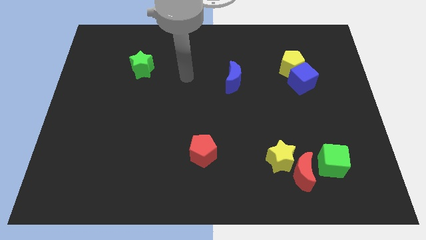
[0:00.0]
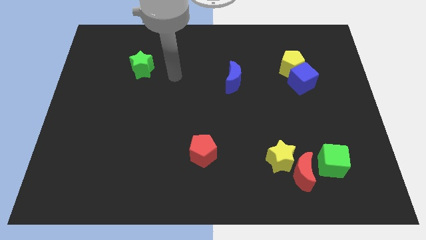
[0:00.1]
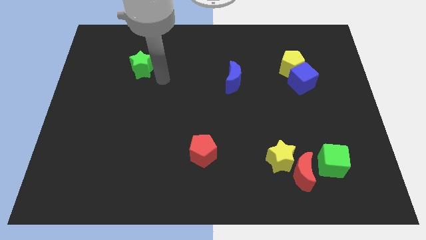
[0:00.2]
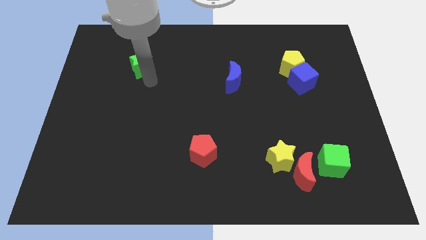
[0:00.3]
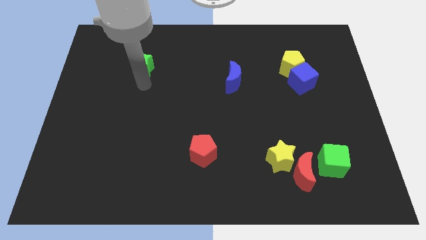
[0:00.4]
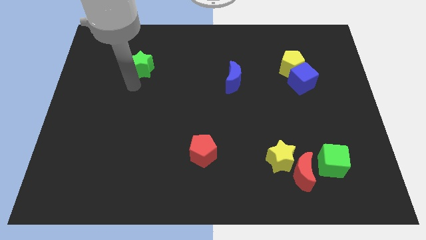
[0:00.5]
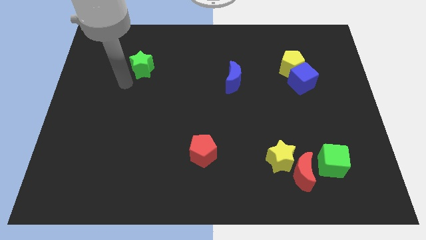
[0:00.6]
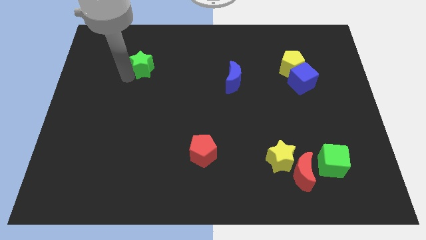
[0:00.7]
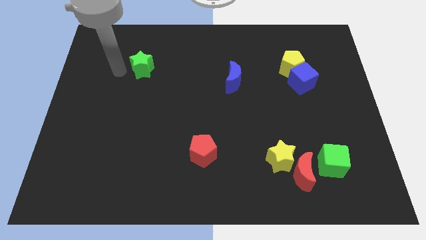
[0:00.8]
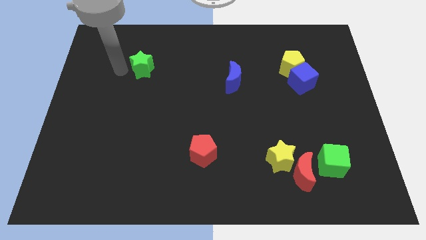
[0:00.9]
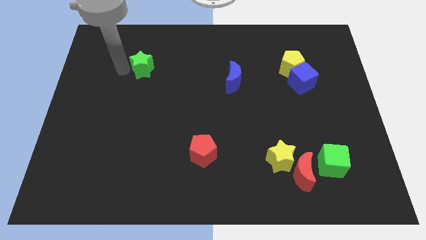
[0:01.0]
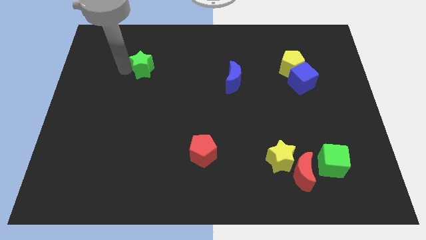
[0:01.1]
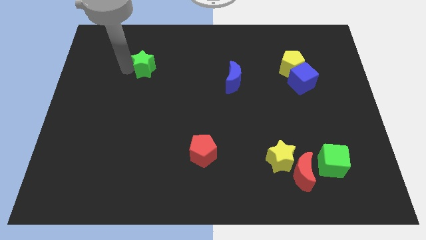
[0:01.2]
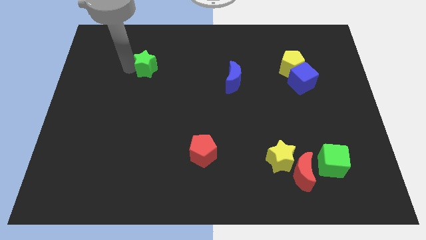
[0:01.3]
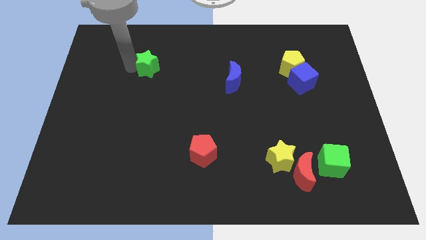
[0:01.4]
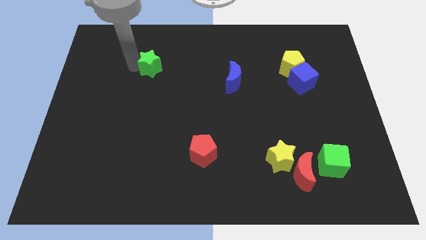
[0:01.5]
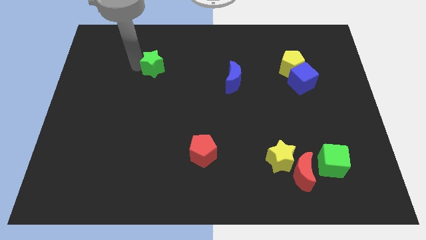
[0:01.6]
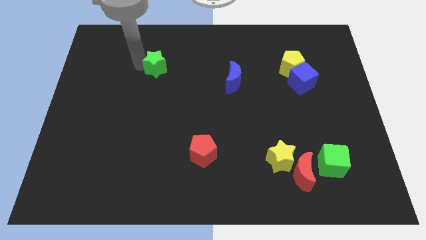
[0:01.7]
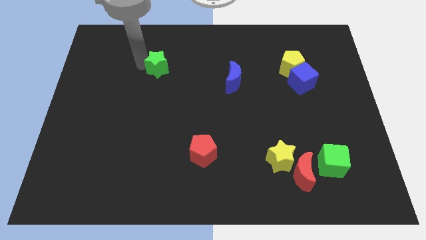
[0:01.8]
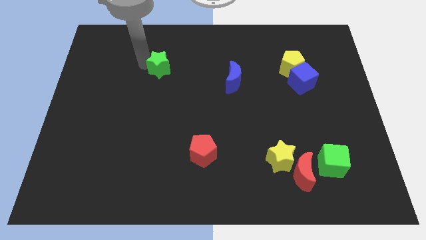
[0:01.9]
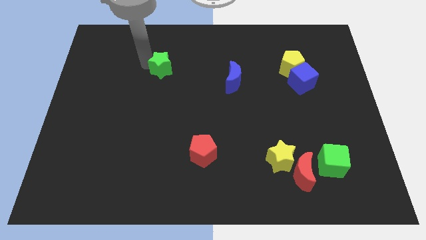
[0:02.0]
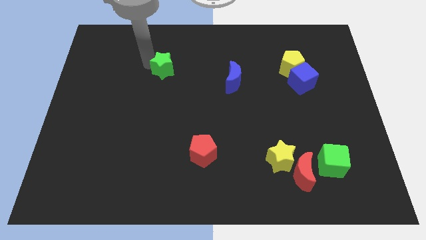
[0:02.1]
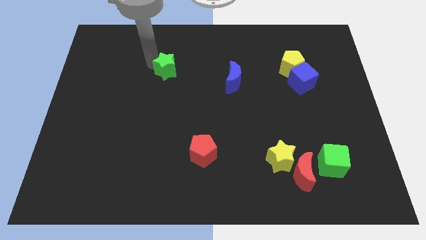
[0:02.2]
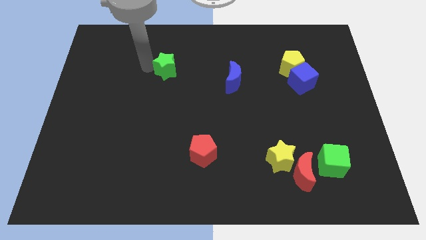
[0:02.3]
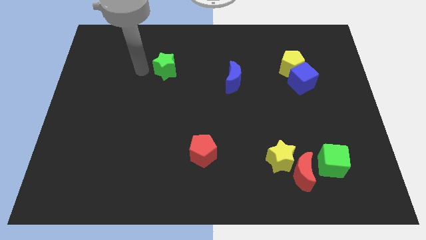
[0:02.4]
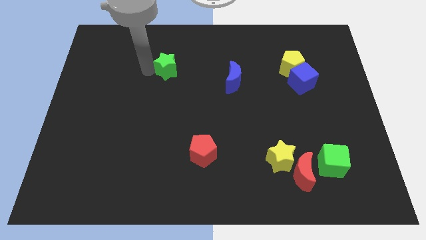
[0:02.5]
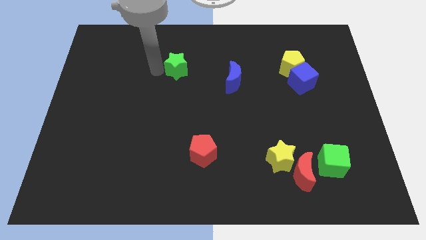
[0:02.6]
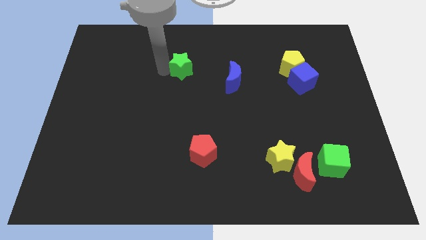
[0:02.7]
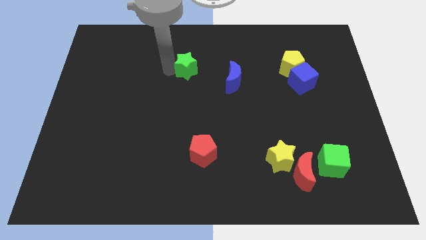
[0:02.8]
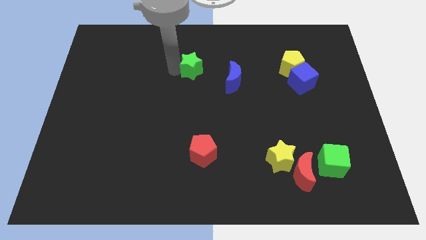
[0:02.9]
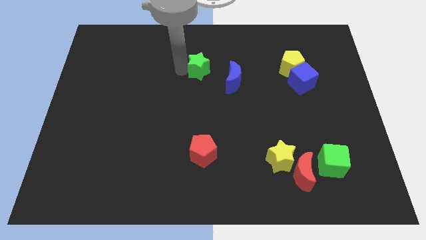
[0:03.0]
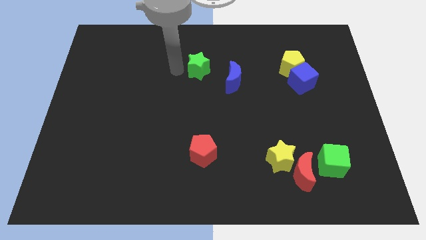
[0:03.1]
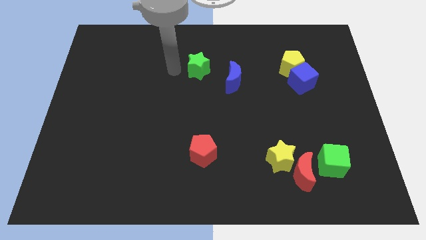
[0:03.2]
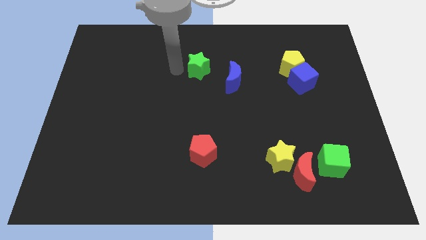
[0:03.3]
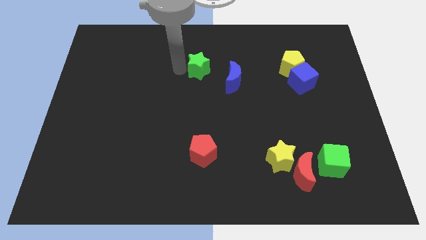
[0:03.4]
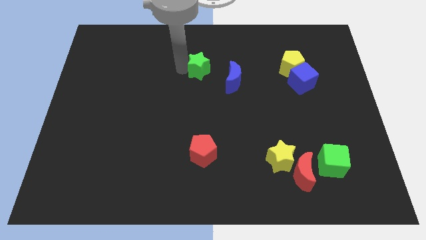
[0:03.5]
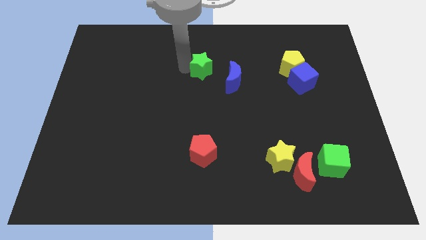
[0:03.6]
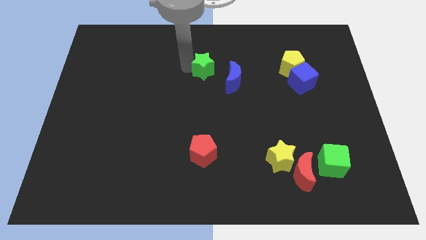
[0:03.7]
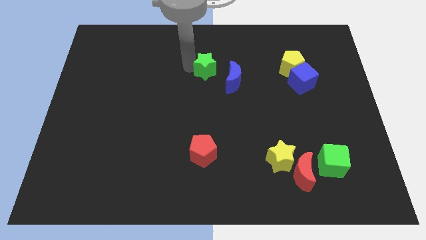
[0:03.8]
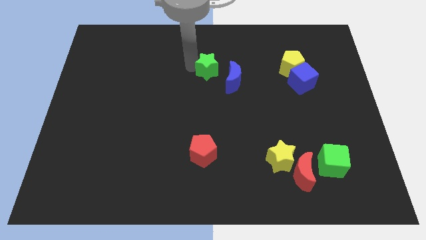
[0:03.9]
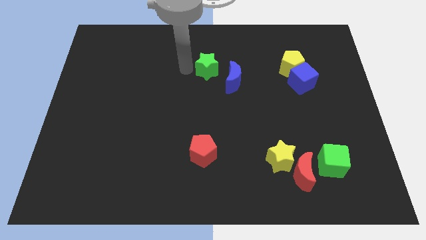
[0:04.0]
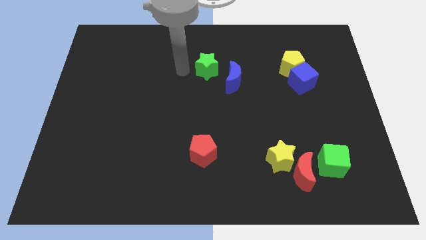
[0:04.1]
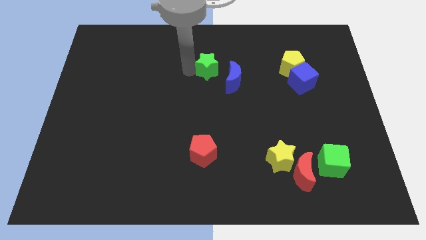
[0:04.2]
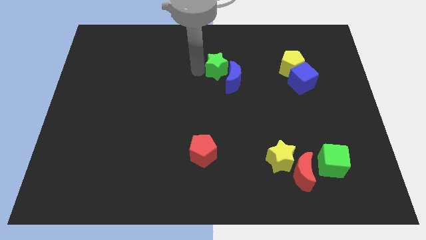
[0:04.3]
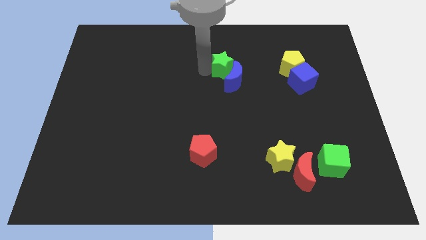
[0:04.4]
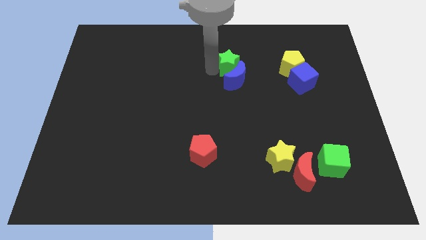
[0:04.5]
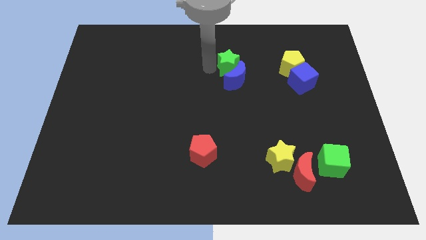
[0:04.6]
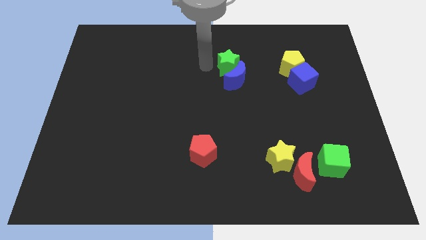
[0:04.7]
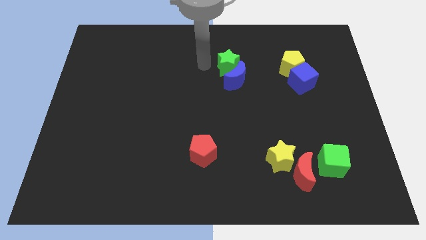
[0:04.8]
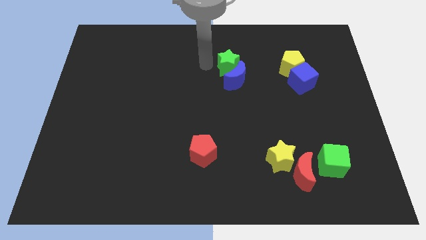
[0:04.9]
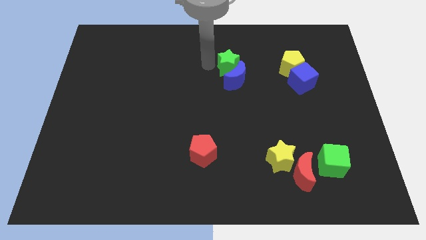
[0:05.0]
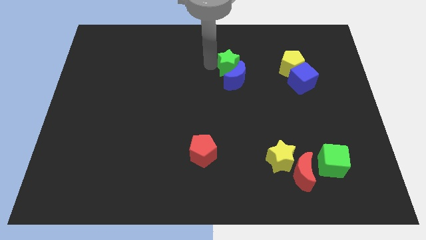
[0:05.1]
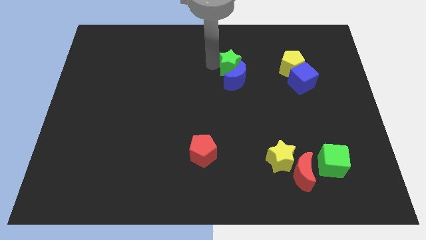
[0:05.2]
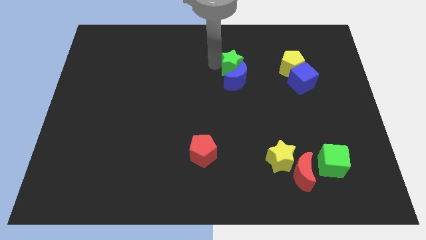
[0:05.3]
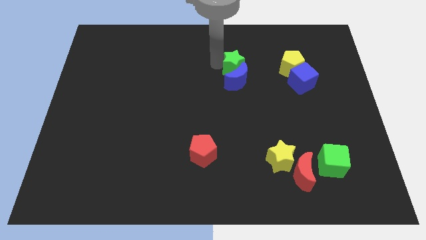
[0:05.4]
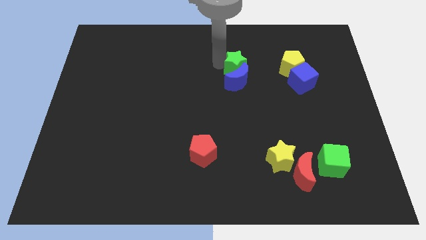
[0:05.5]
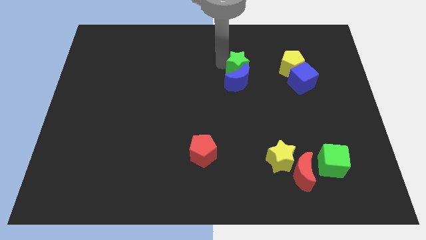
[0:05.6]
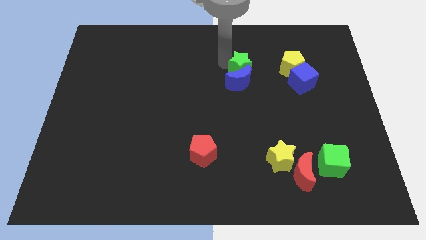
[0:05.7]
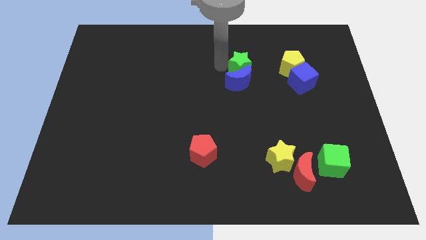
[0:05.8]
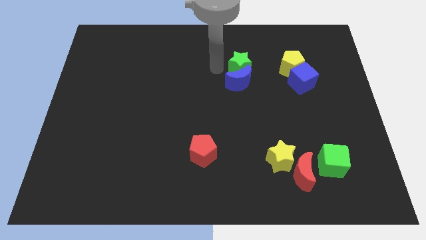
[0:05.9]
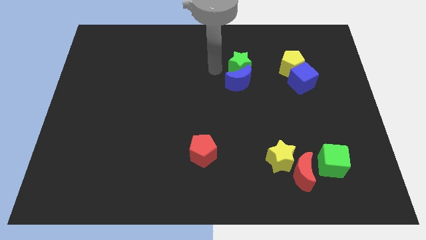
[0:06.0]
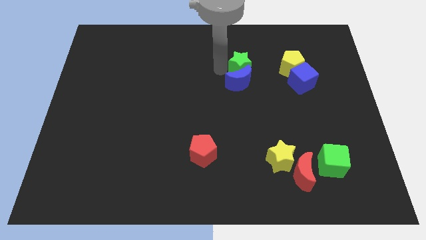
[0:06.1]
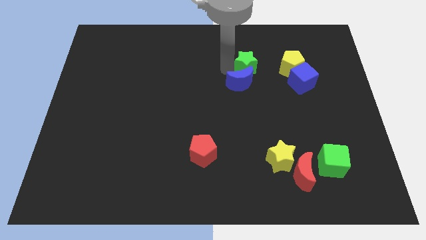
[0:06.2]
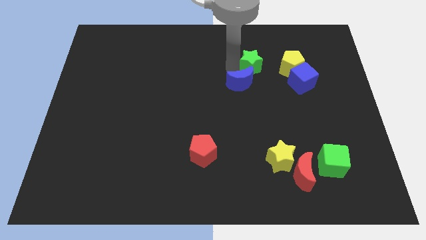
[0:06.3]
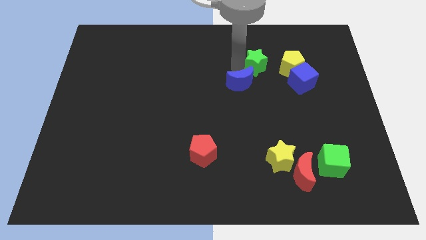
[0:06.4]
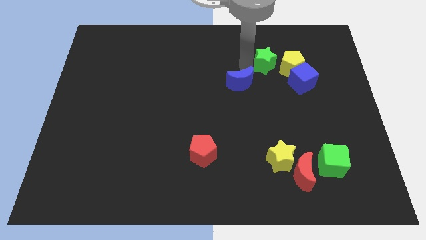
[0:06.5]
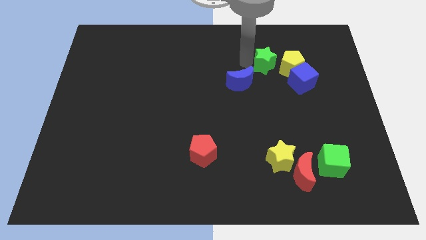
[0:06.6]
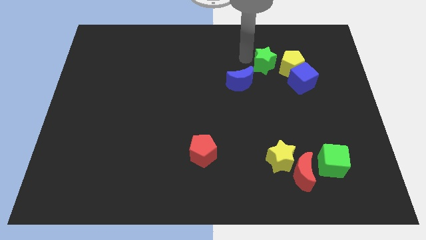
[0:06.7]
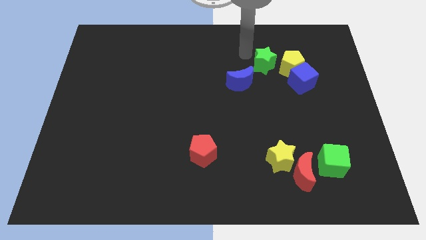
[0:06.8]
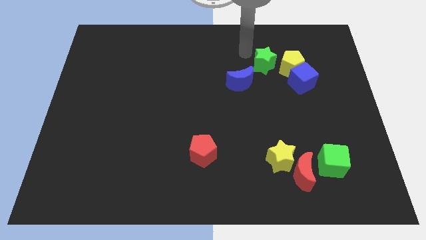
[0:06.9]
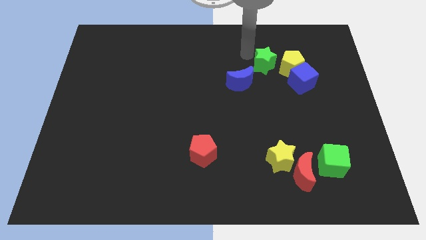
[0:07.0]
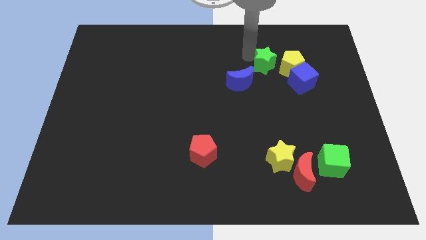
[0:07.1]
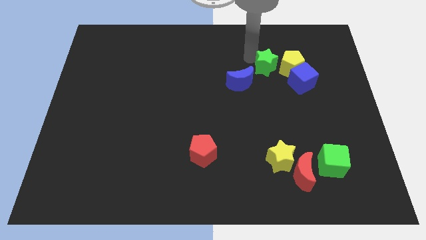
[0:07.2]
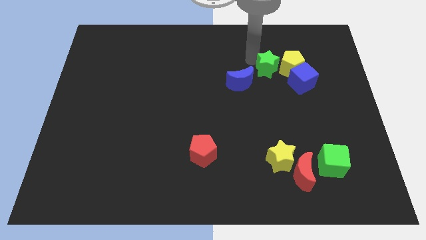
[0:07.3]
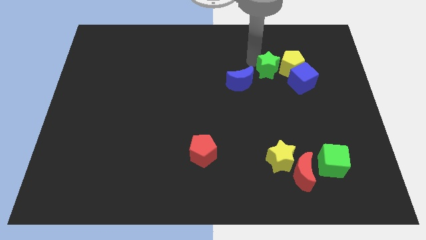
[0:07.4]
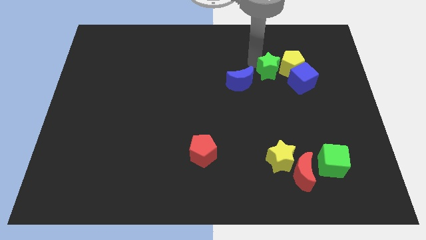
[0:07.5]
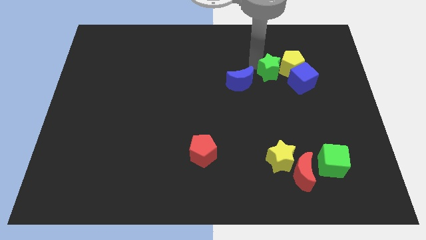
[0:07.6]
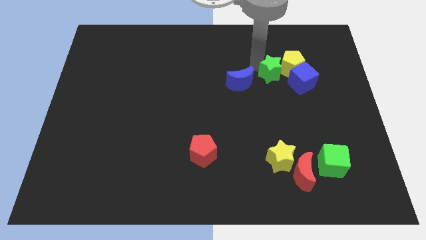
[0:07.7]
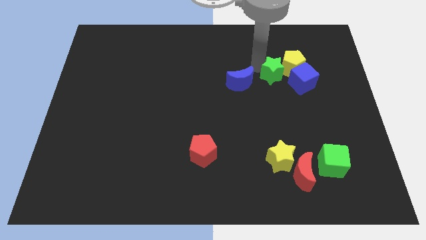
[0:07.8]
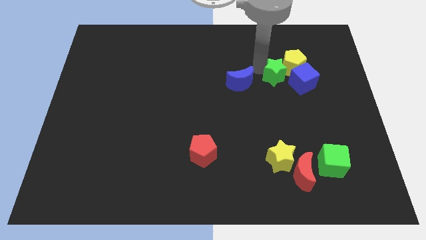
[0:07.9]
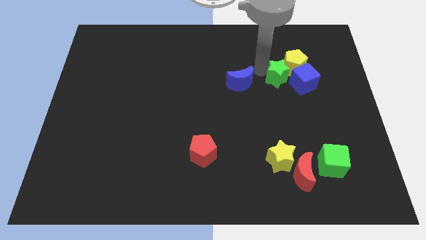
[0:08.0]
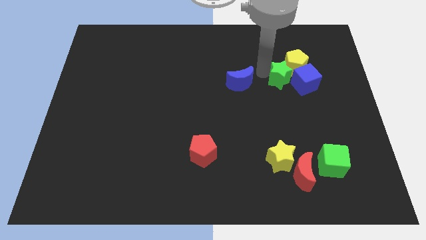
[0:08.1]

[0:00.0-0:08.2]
move the green star to the blue cube
